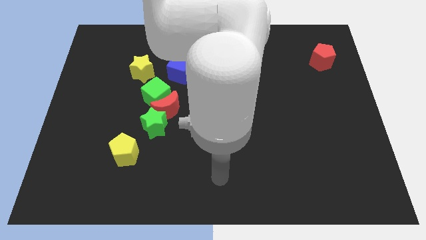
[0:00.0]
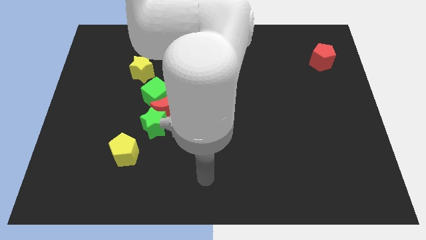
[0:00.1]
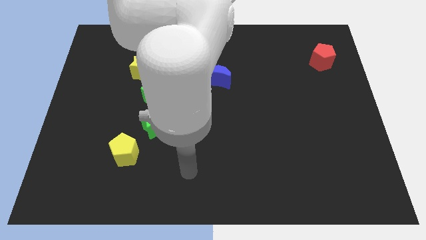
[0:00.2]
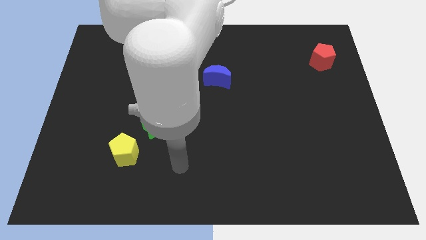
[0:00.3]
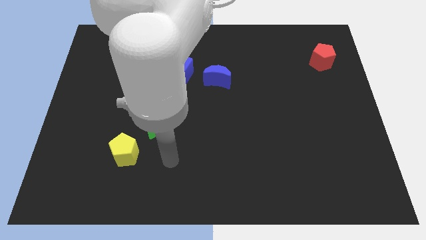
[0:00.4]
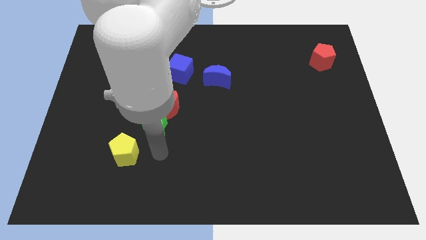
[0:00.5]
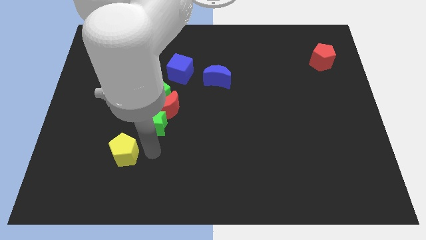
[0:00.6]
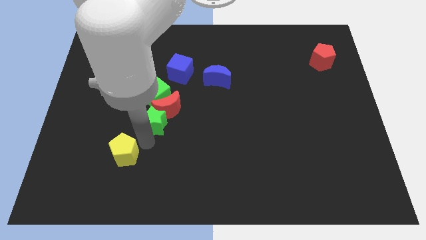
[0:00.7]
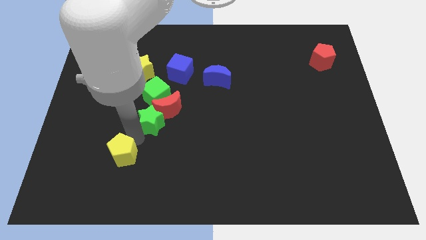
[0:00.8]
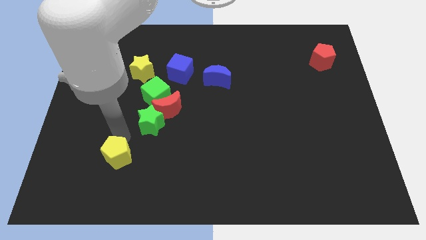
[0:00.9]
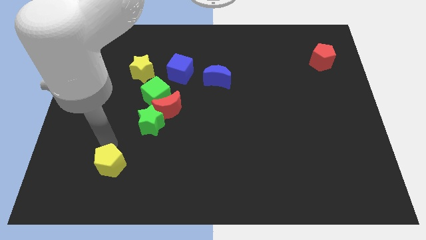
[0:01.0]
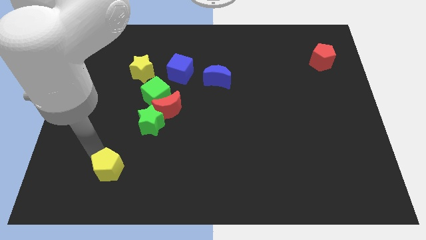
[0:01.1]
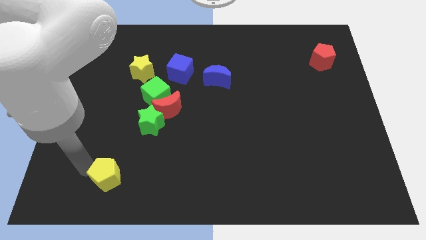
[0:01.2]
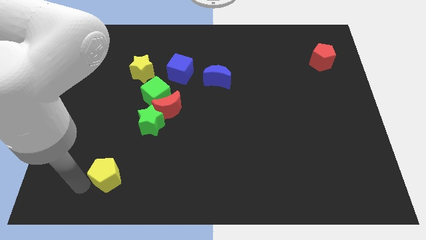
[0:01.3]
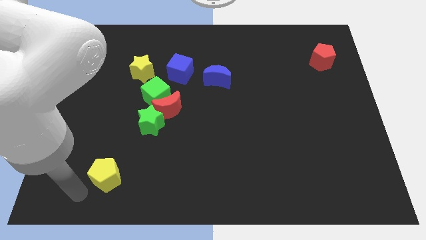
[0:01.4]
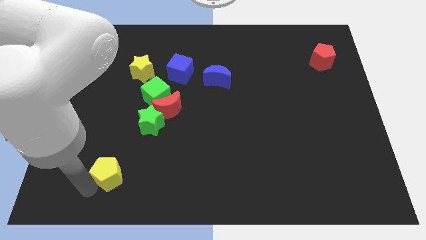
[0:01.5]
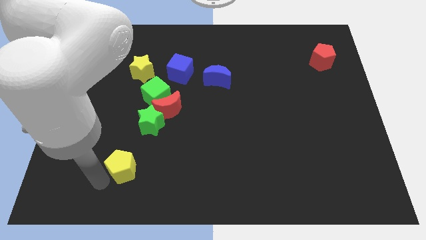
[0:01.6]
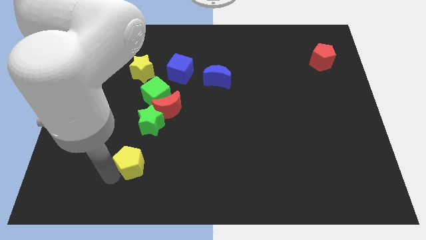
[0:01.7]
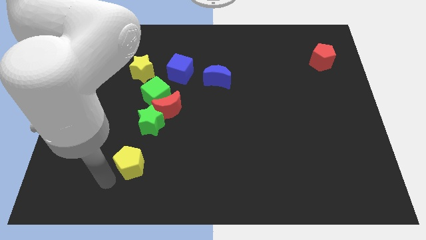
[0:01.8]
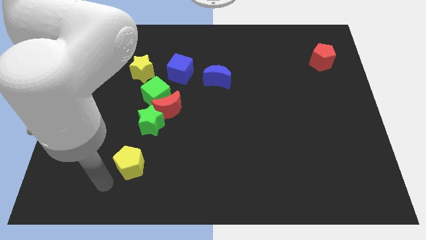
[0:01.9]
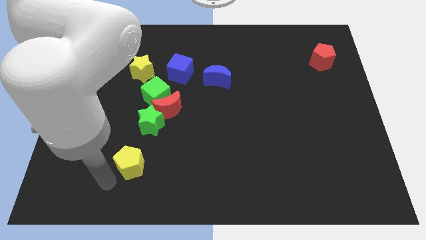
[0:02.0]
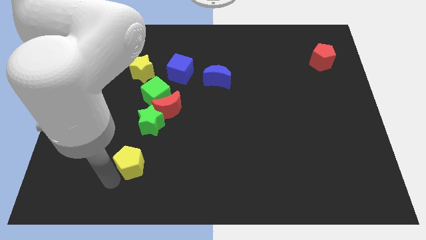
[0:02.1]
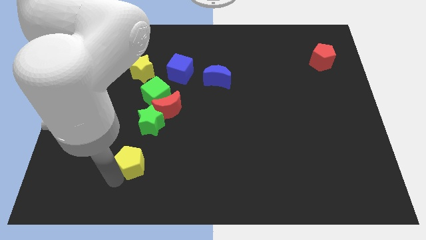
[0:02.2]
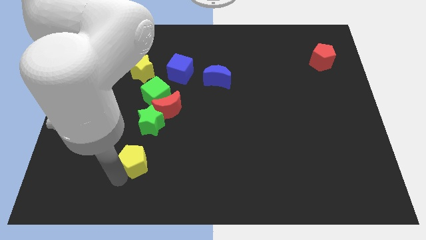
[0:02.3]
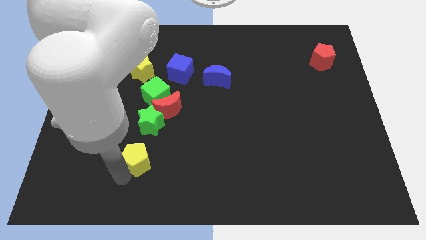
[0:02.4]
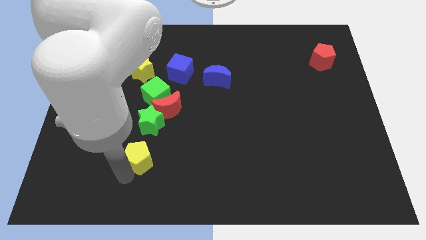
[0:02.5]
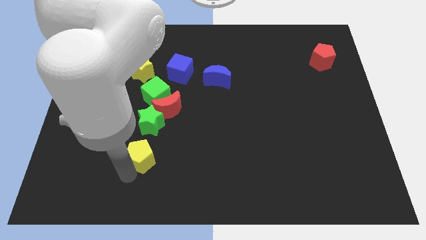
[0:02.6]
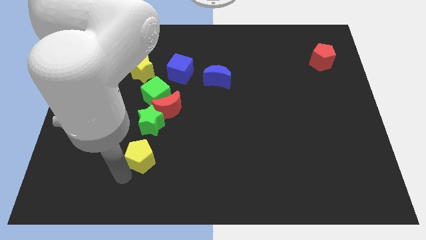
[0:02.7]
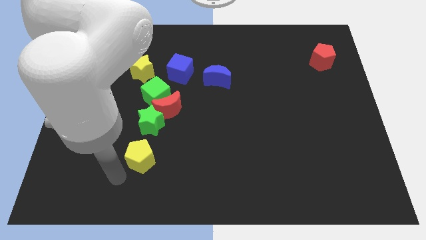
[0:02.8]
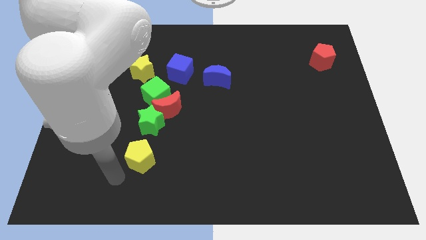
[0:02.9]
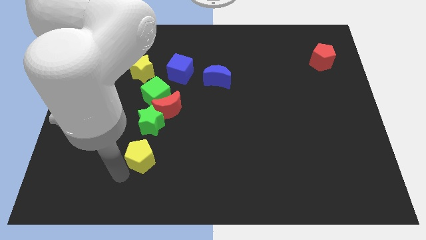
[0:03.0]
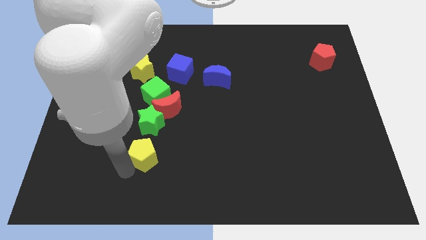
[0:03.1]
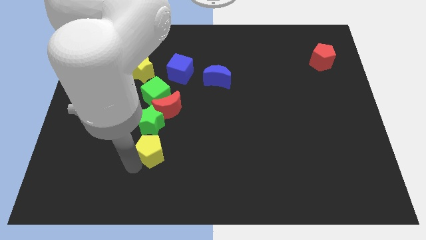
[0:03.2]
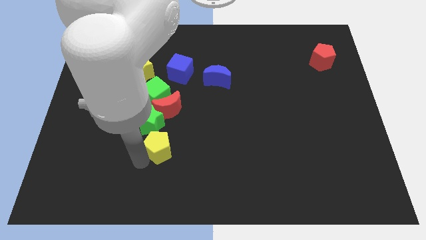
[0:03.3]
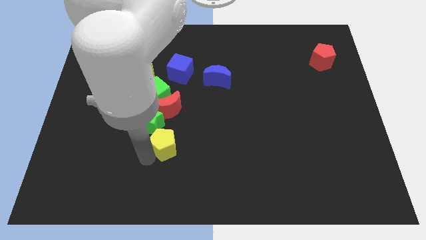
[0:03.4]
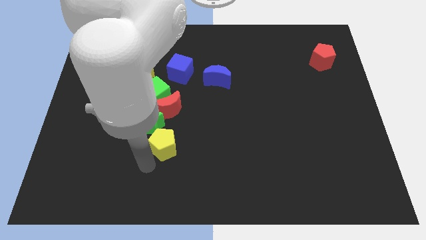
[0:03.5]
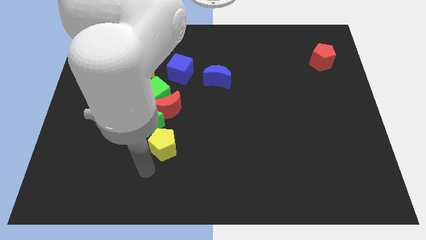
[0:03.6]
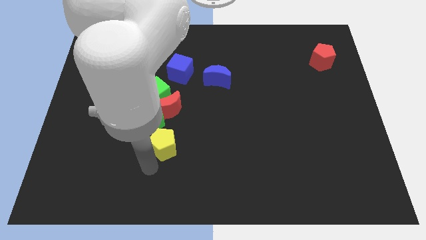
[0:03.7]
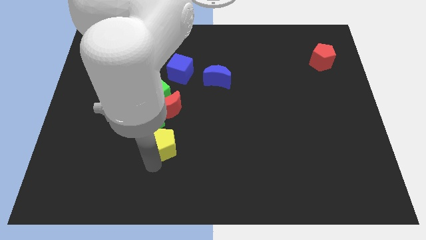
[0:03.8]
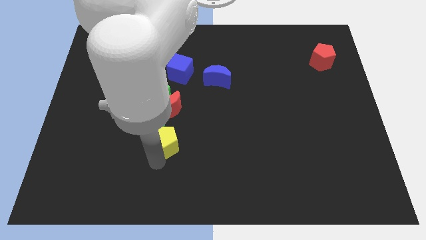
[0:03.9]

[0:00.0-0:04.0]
move the yellow pentagon diagonally up and right a little bit

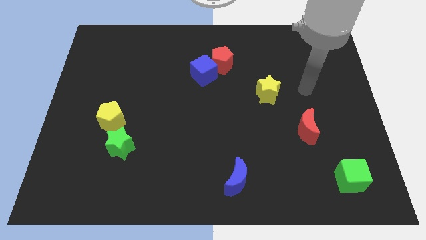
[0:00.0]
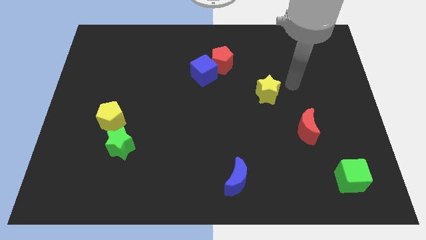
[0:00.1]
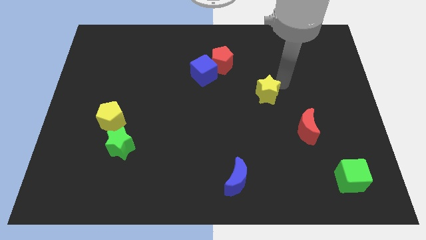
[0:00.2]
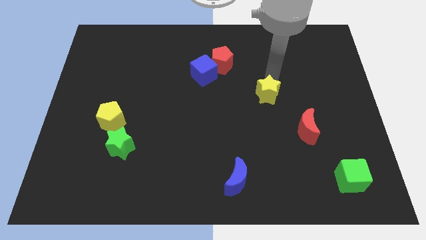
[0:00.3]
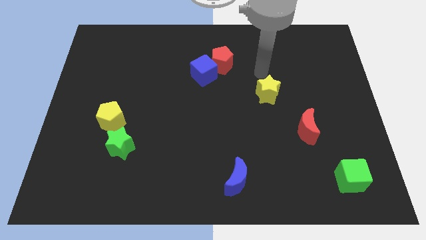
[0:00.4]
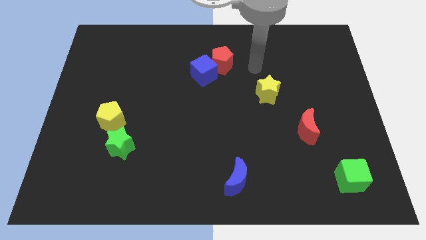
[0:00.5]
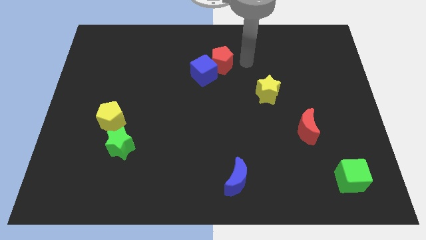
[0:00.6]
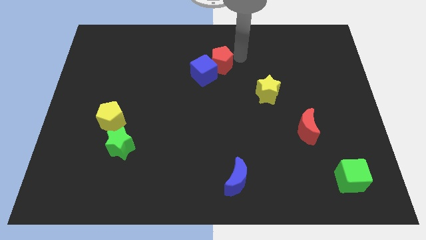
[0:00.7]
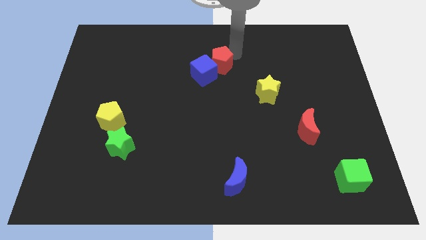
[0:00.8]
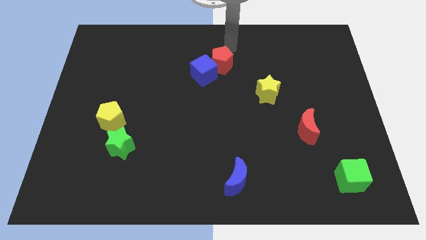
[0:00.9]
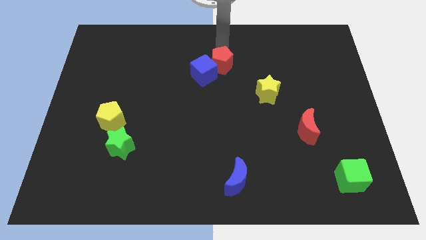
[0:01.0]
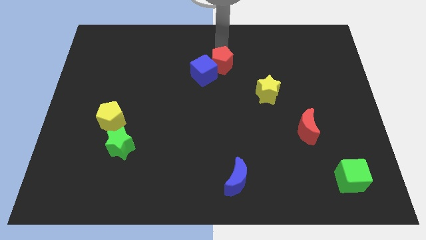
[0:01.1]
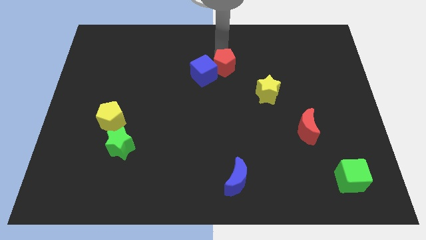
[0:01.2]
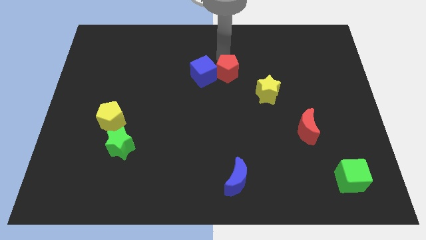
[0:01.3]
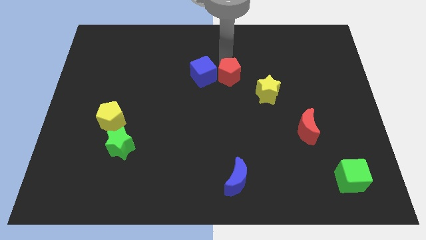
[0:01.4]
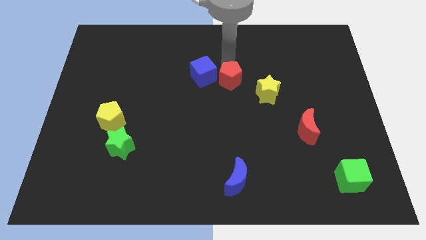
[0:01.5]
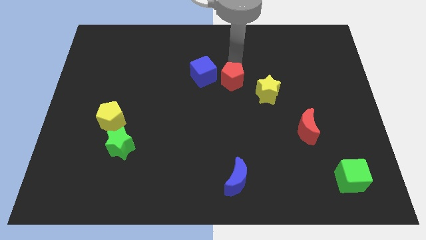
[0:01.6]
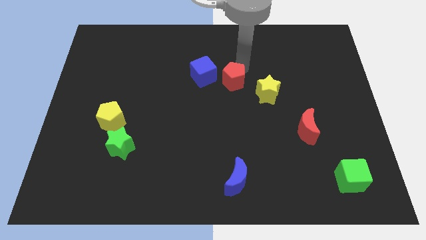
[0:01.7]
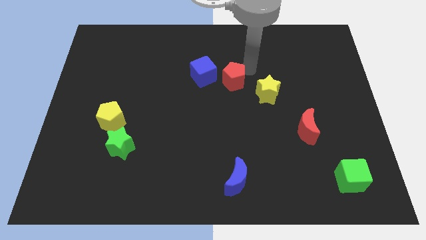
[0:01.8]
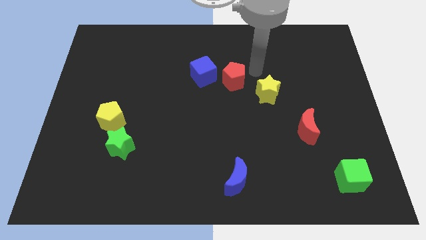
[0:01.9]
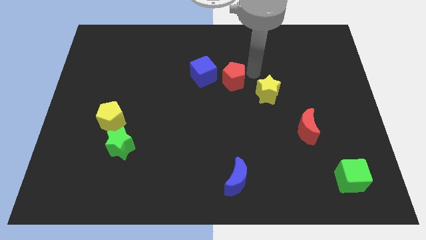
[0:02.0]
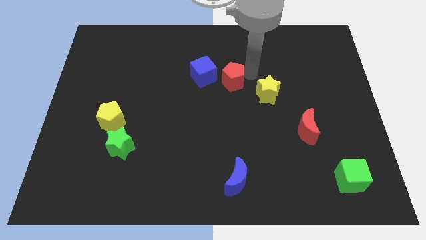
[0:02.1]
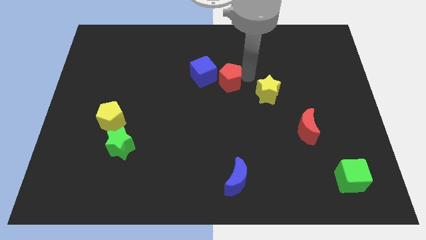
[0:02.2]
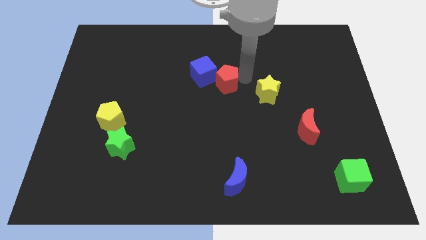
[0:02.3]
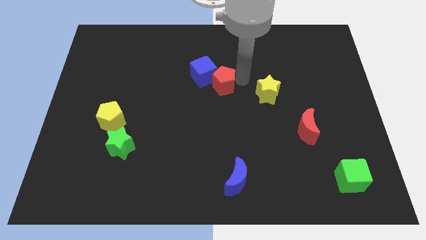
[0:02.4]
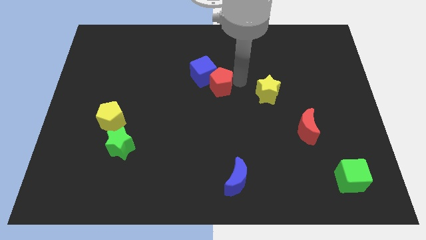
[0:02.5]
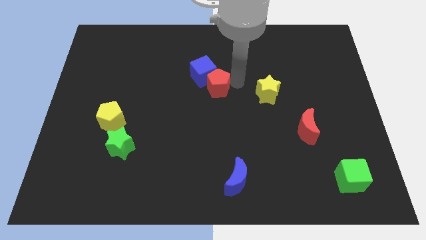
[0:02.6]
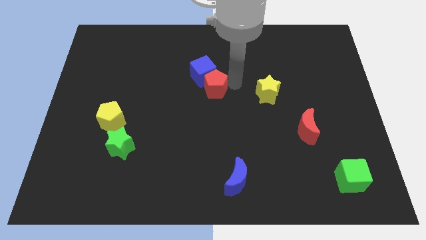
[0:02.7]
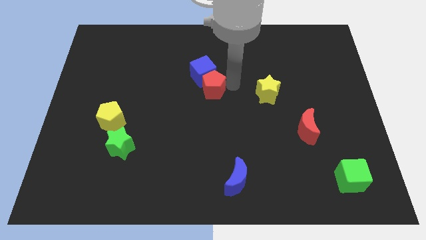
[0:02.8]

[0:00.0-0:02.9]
move the red pentagon down and to the left slightly

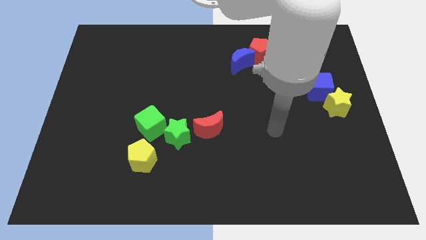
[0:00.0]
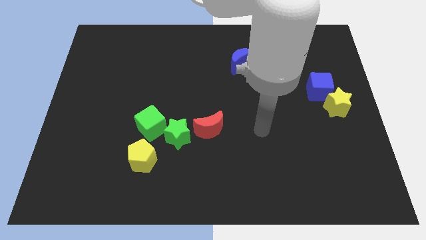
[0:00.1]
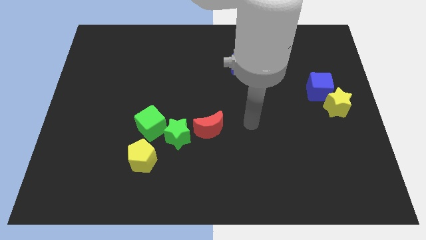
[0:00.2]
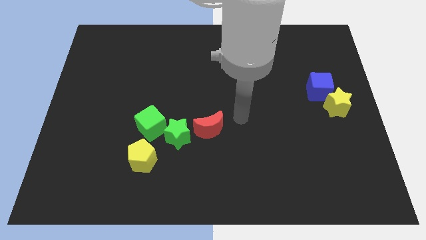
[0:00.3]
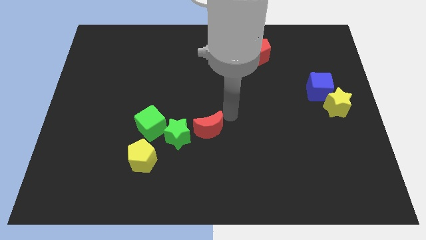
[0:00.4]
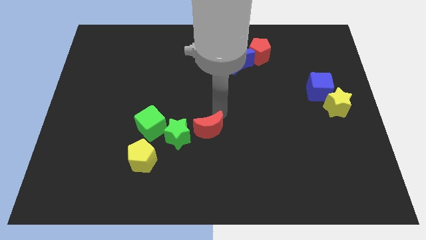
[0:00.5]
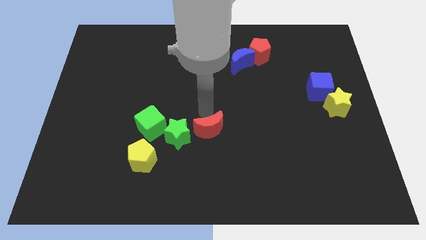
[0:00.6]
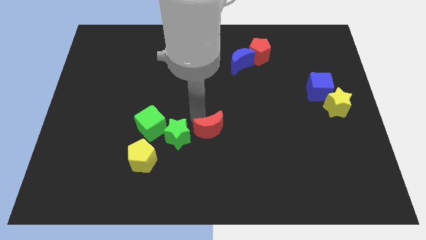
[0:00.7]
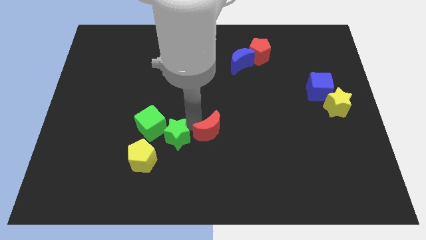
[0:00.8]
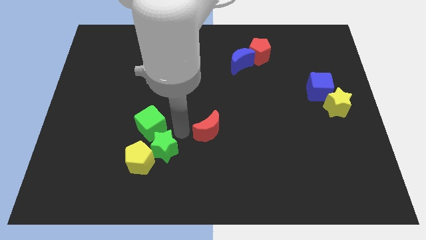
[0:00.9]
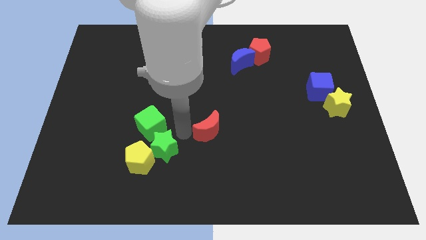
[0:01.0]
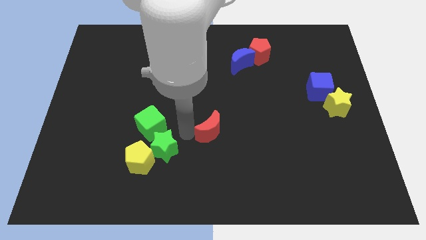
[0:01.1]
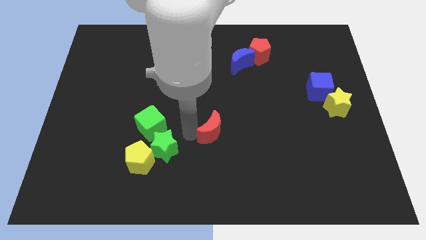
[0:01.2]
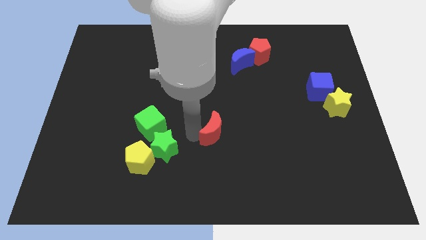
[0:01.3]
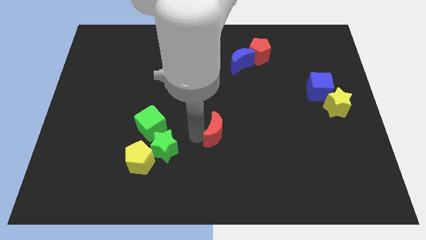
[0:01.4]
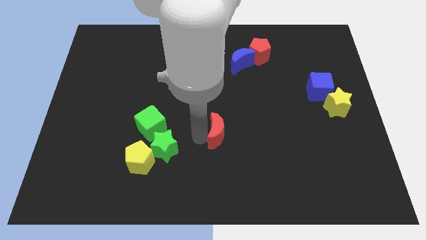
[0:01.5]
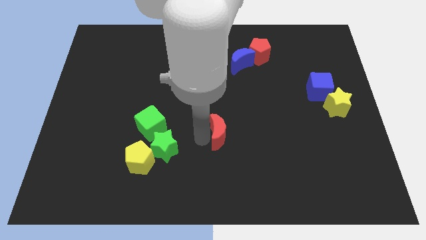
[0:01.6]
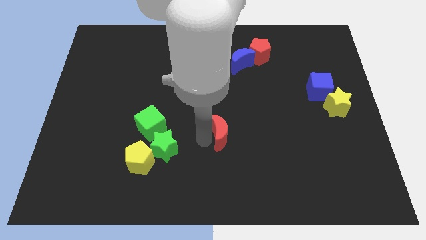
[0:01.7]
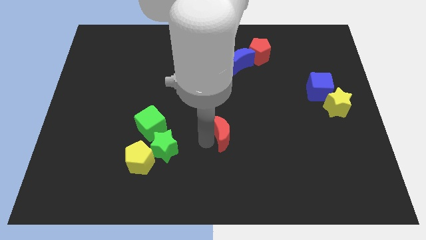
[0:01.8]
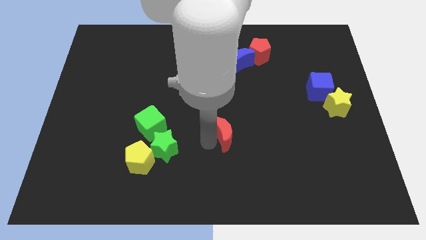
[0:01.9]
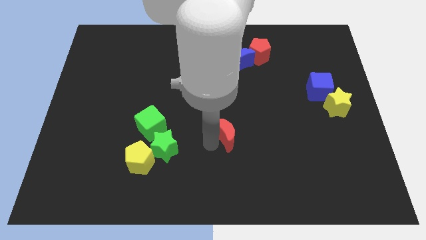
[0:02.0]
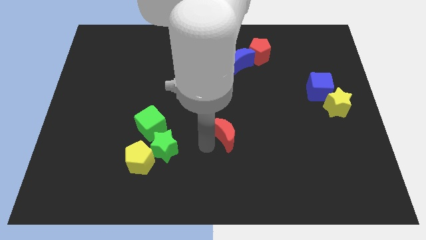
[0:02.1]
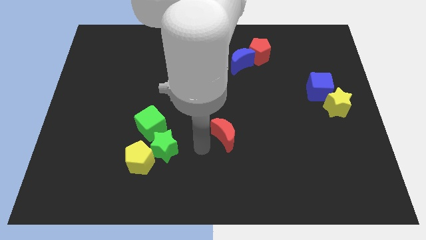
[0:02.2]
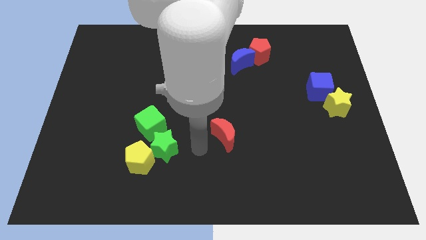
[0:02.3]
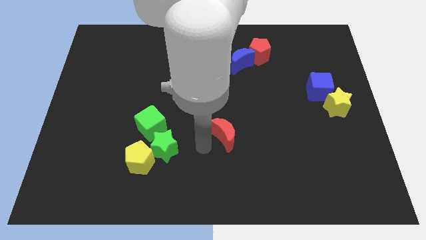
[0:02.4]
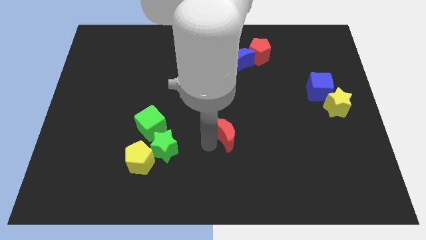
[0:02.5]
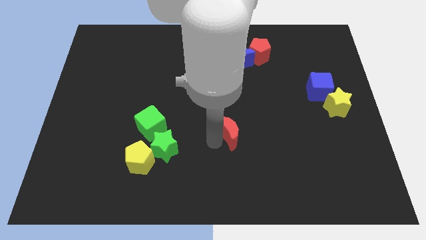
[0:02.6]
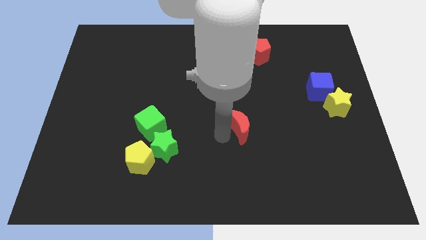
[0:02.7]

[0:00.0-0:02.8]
slide the red moon a little right
